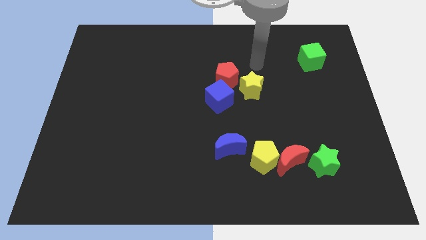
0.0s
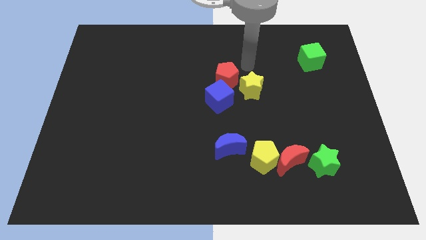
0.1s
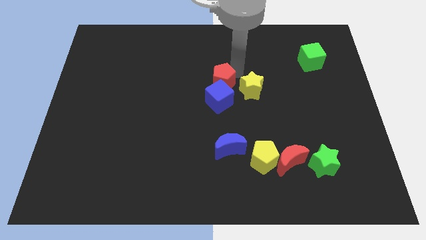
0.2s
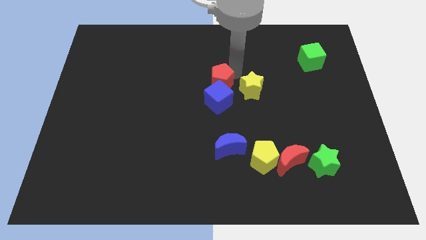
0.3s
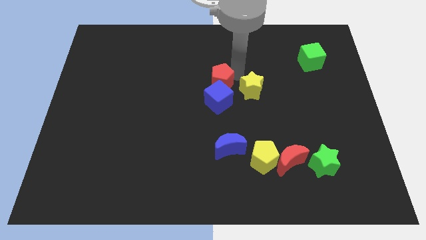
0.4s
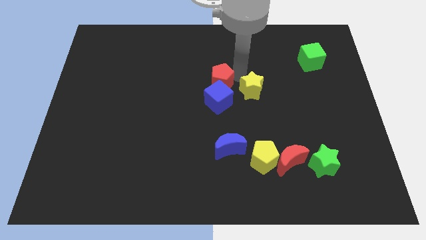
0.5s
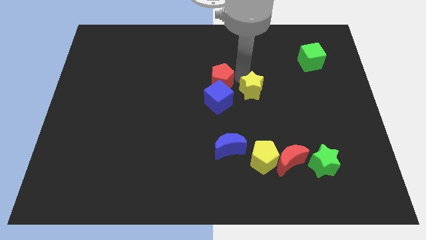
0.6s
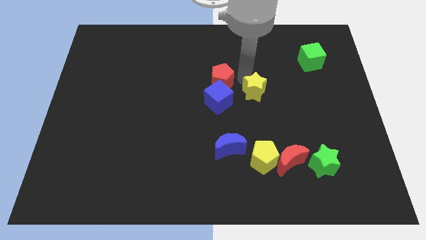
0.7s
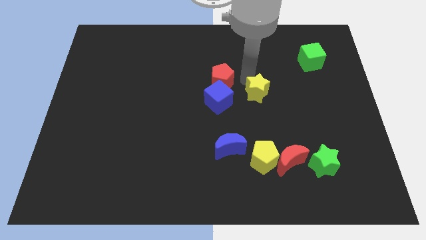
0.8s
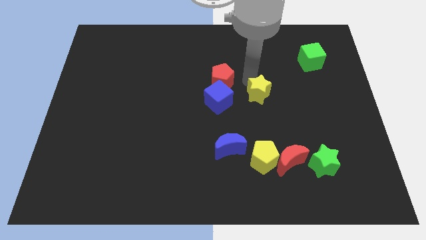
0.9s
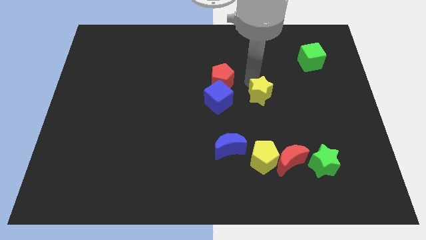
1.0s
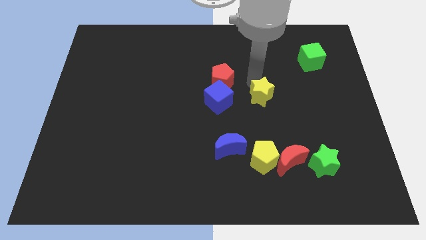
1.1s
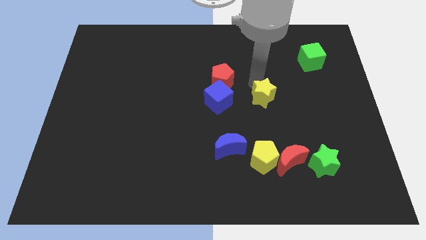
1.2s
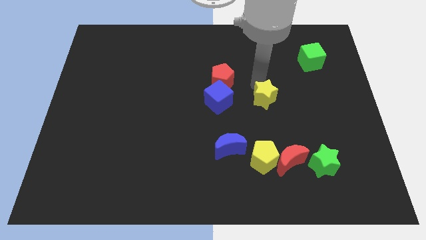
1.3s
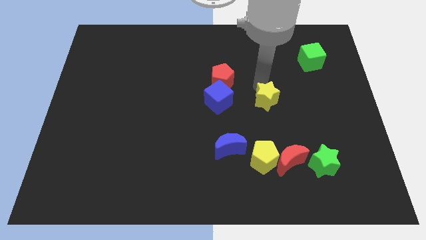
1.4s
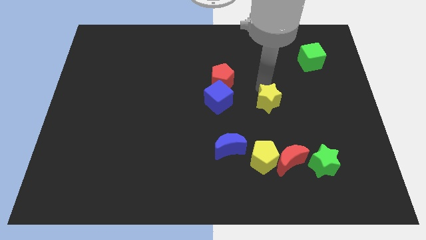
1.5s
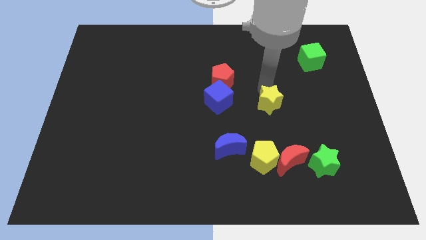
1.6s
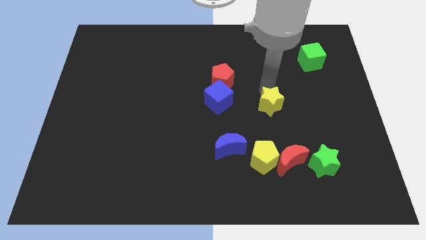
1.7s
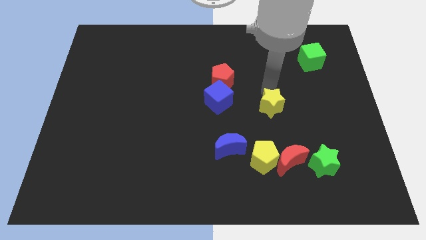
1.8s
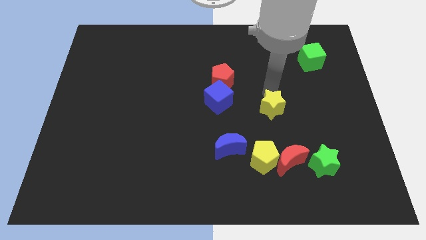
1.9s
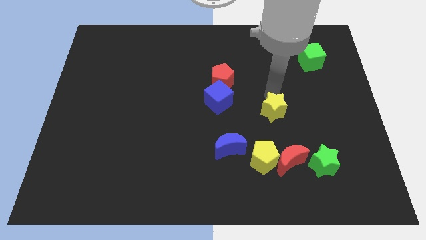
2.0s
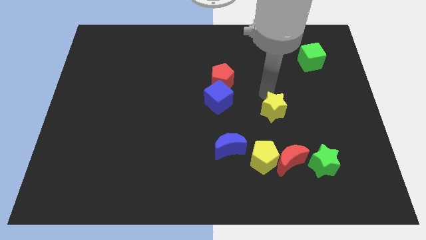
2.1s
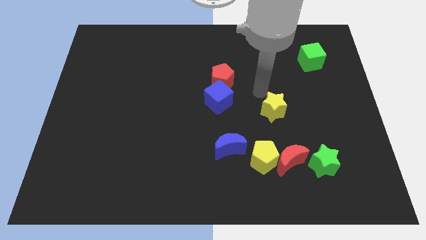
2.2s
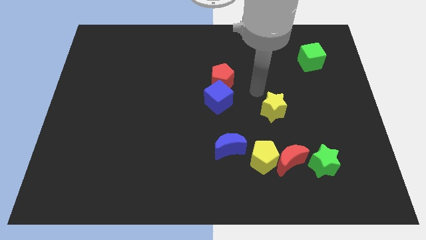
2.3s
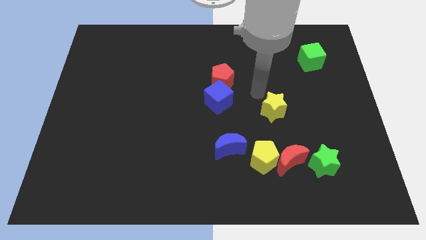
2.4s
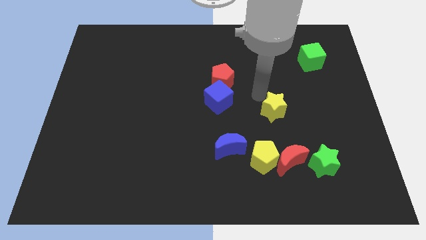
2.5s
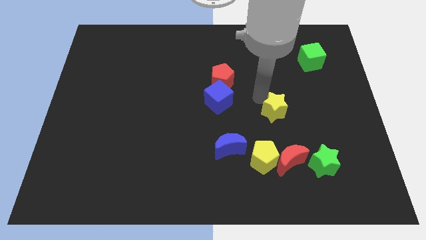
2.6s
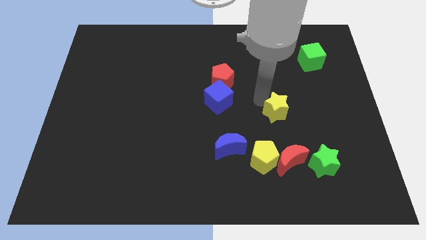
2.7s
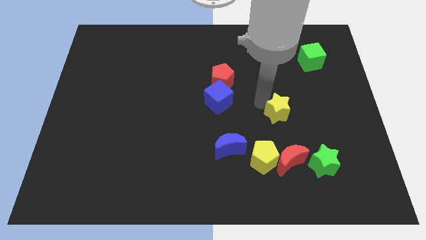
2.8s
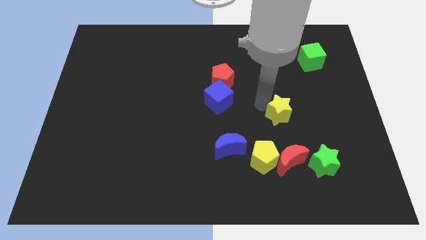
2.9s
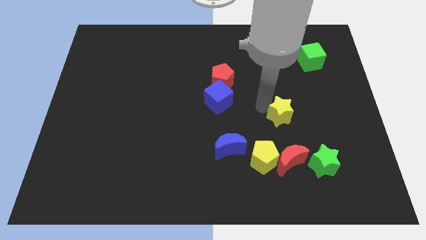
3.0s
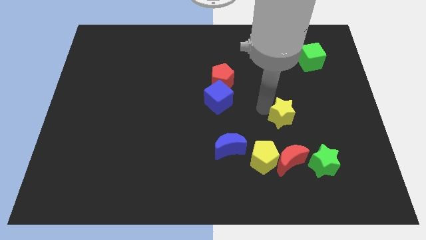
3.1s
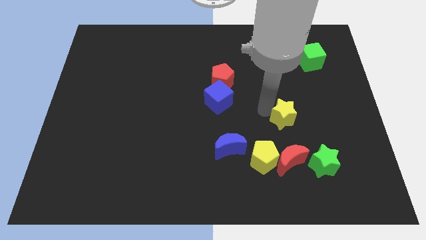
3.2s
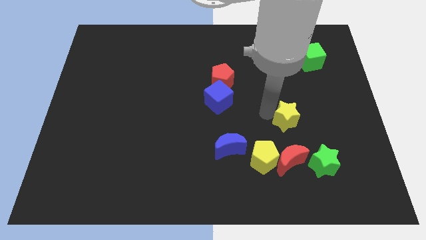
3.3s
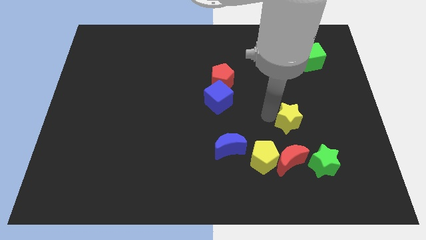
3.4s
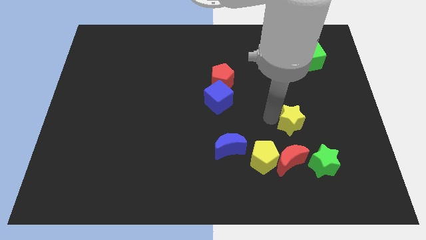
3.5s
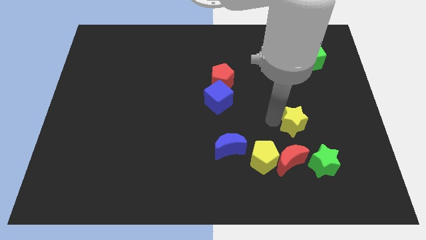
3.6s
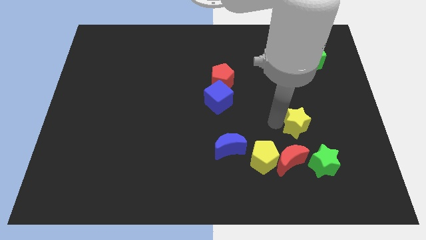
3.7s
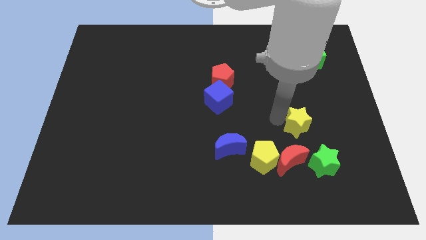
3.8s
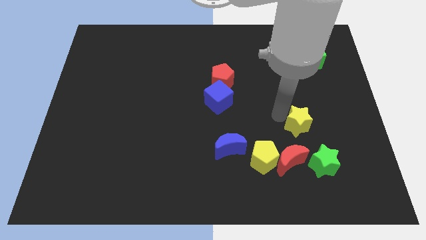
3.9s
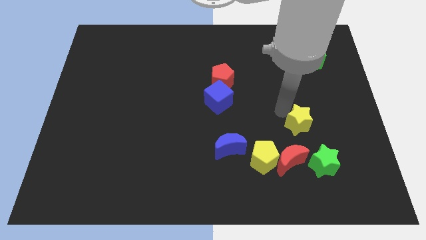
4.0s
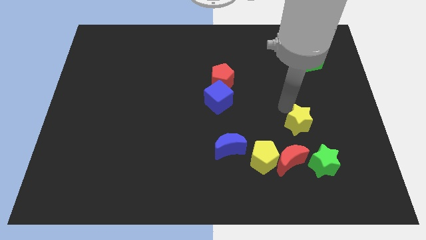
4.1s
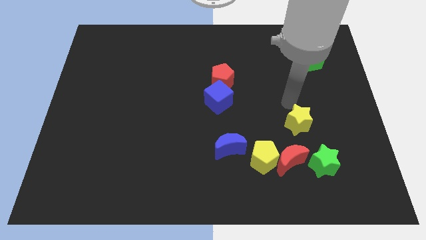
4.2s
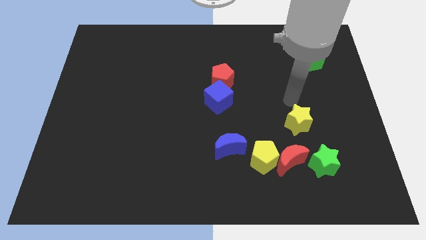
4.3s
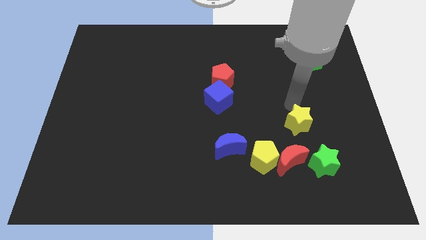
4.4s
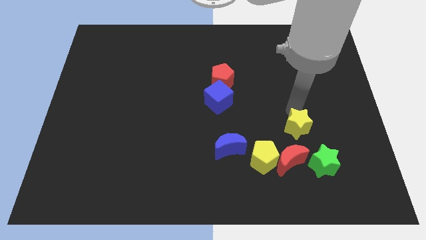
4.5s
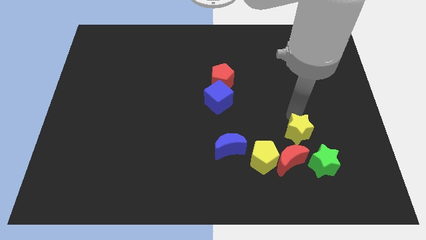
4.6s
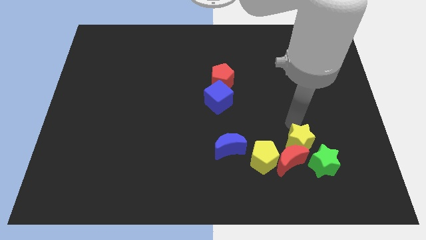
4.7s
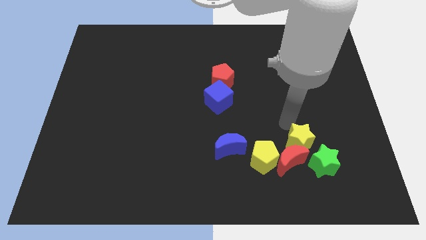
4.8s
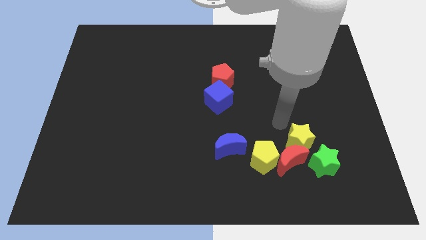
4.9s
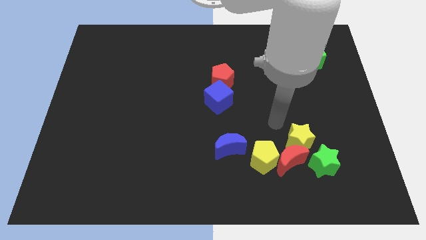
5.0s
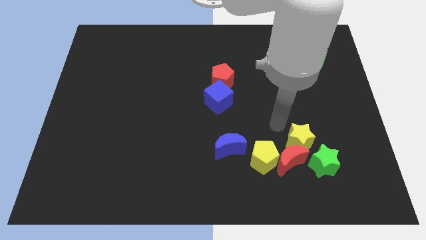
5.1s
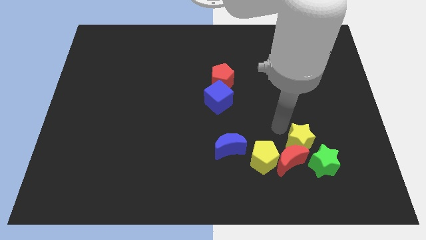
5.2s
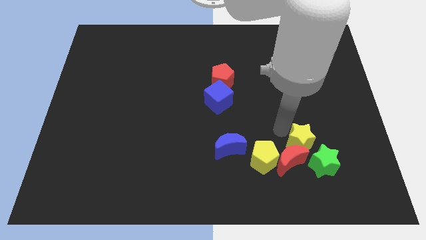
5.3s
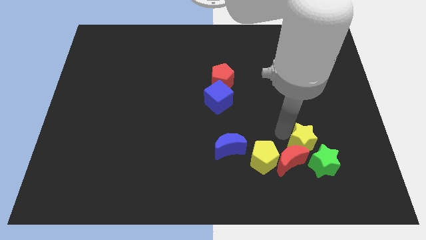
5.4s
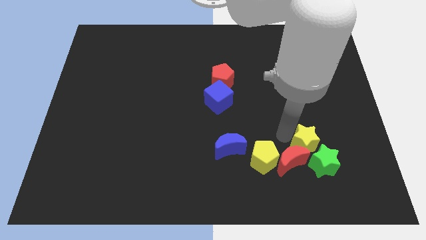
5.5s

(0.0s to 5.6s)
move the yellow star next to the green star

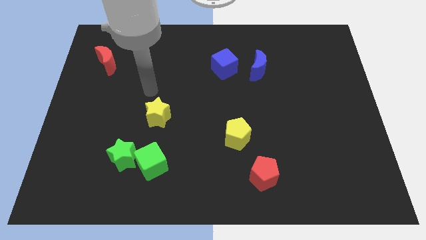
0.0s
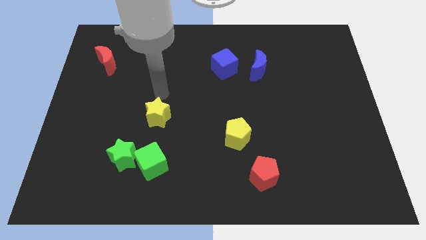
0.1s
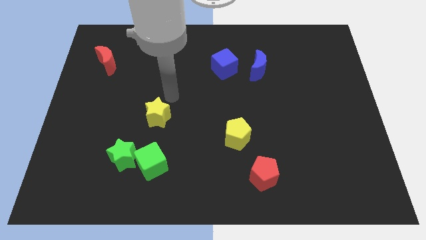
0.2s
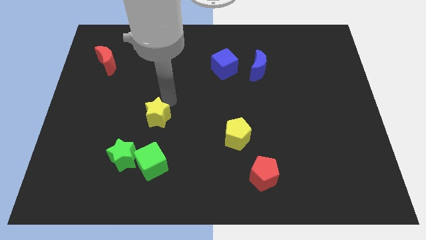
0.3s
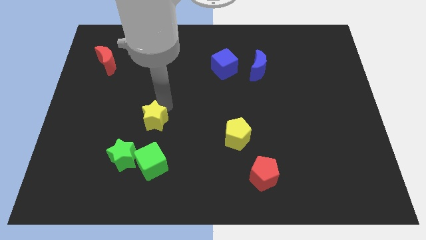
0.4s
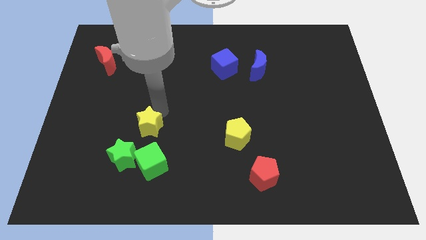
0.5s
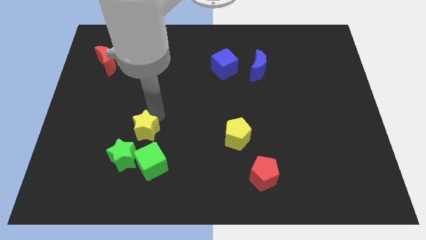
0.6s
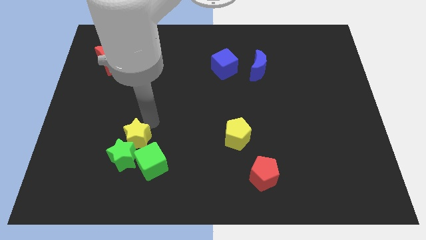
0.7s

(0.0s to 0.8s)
slide the yellow star to the green star
